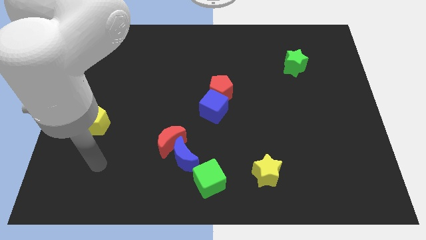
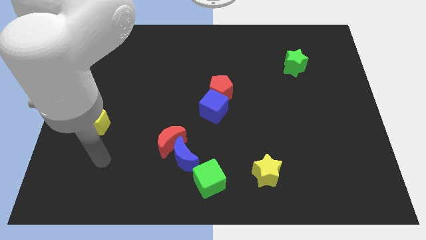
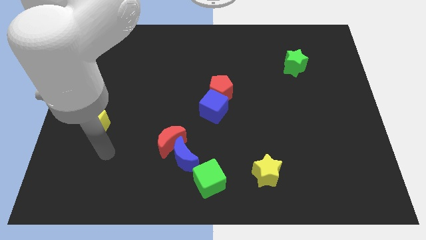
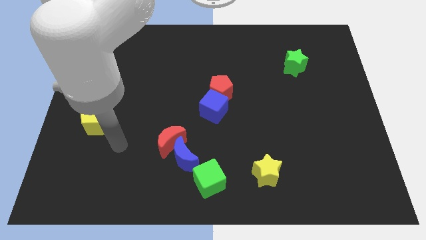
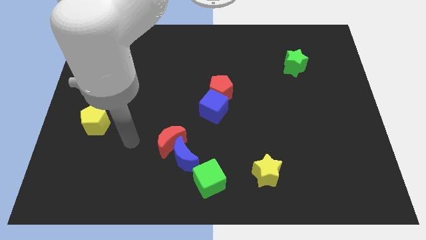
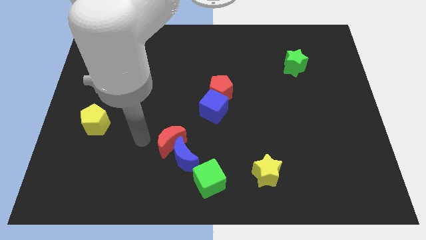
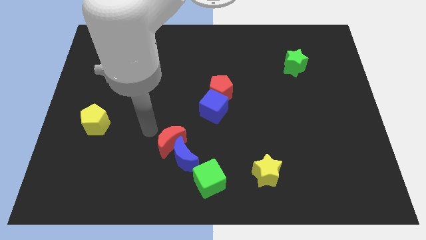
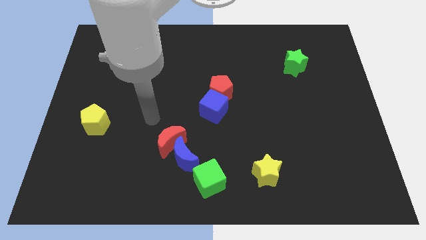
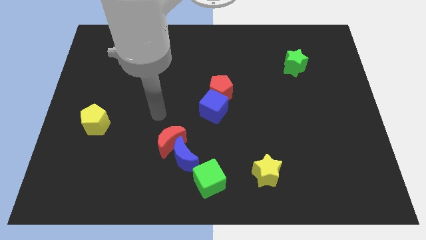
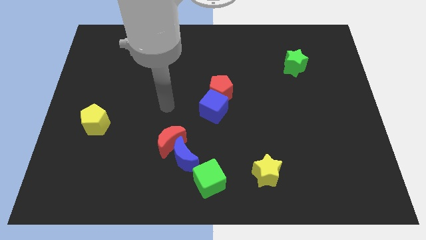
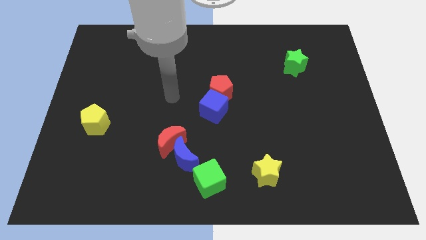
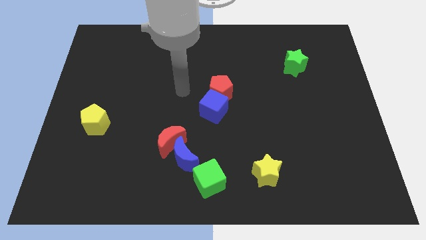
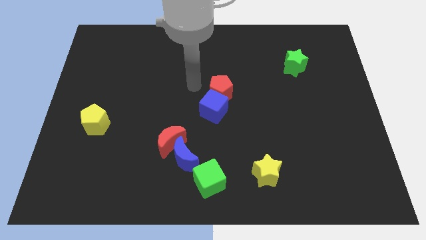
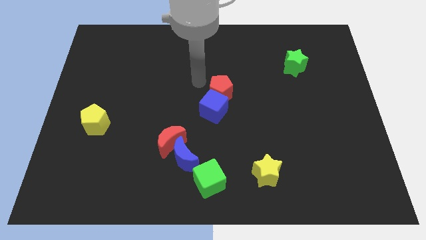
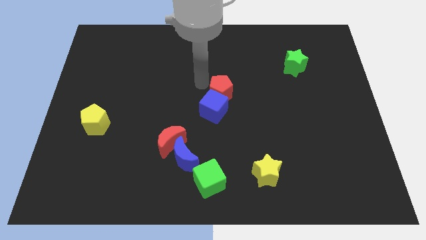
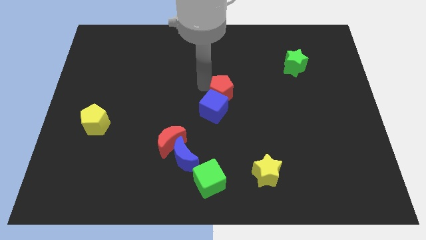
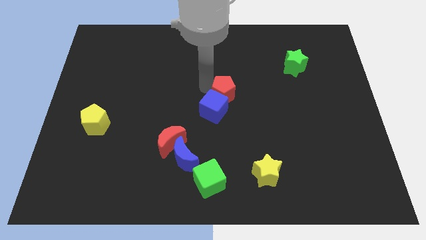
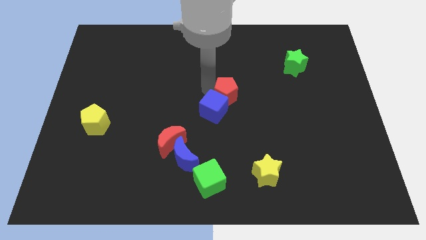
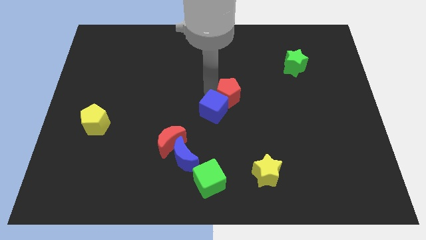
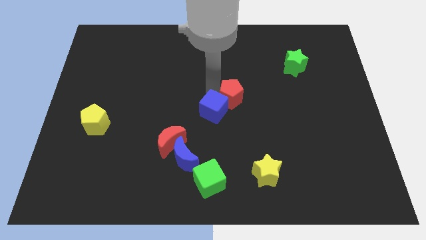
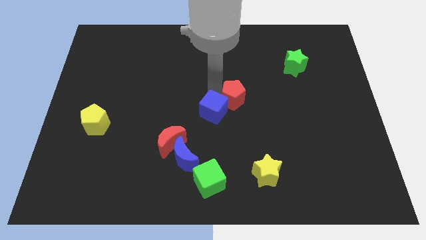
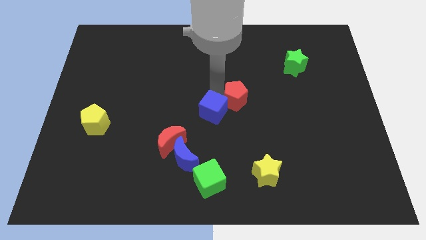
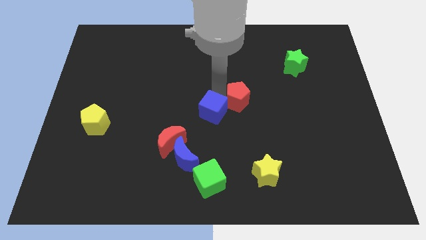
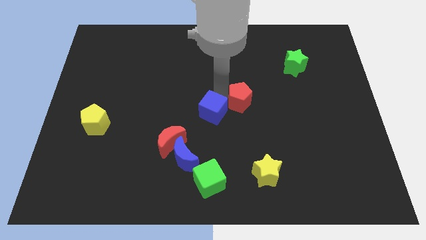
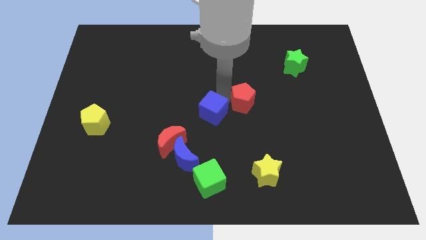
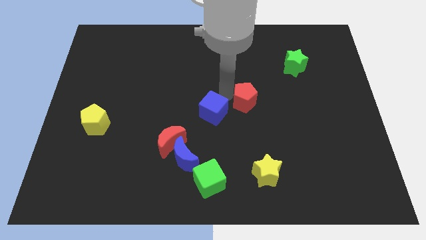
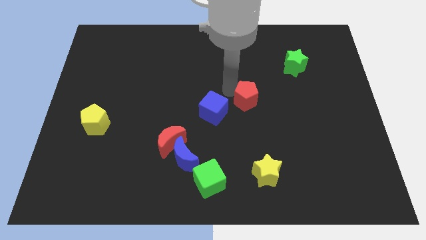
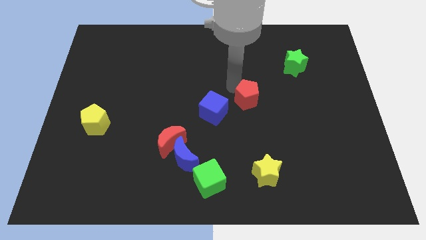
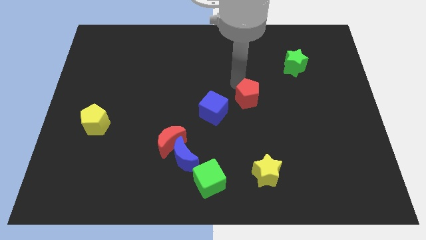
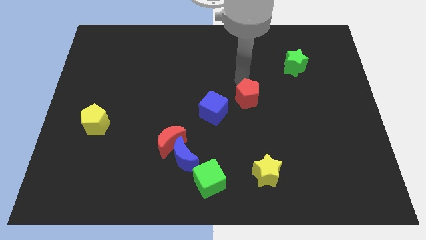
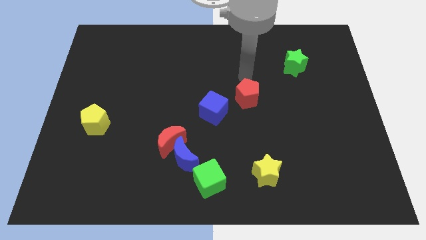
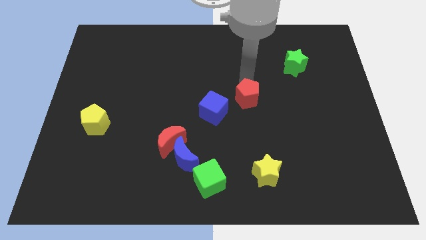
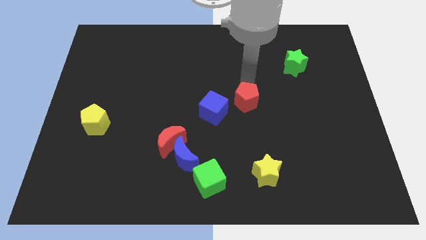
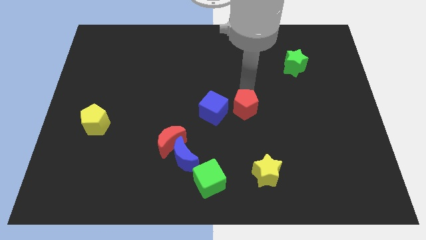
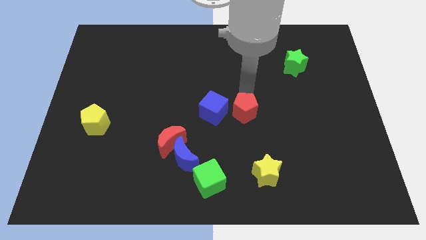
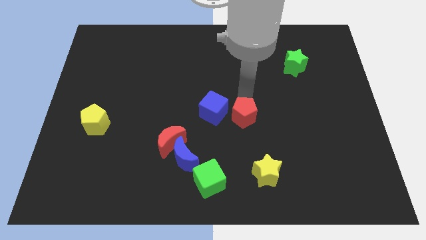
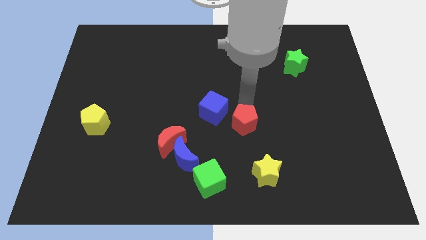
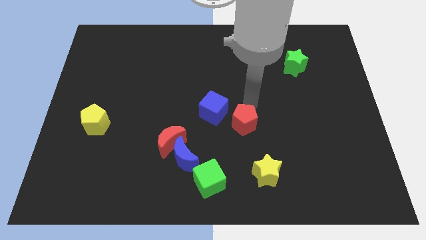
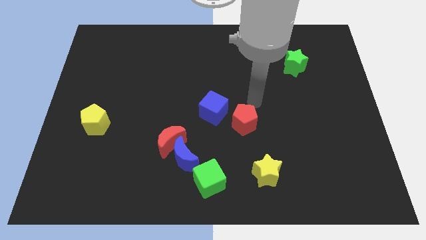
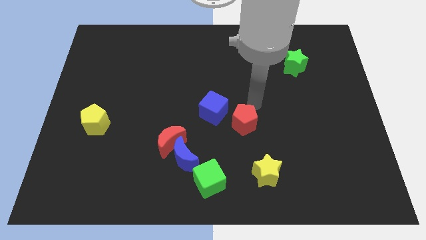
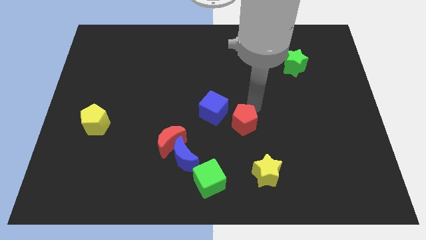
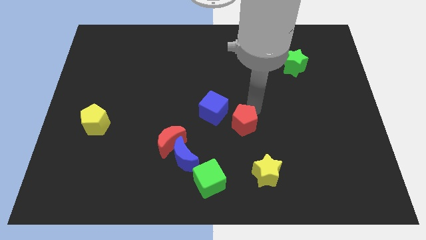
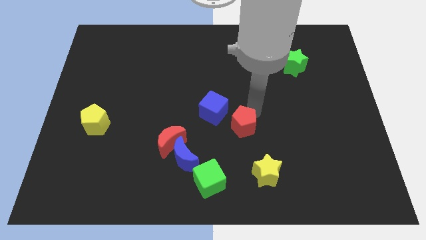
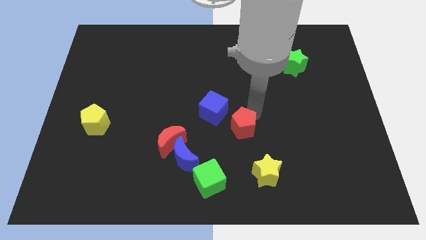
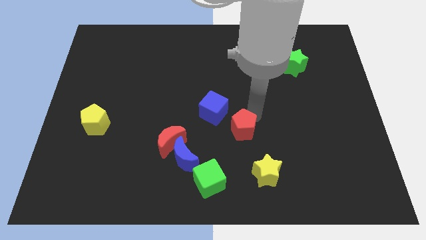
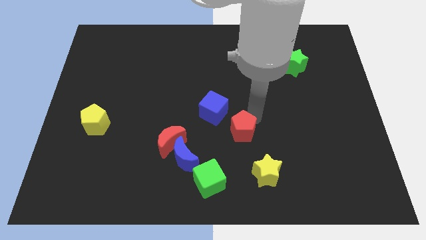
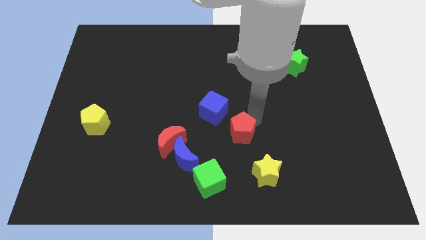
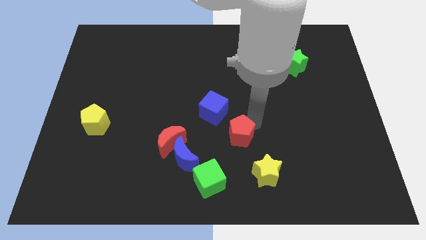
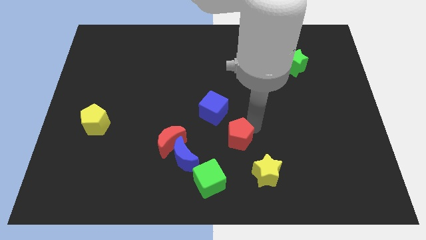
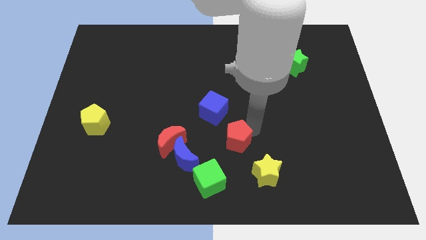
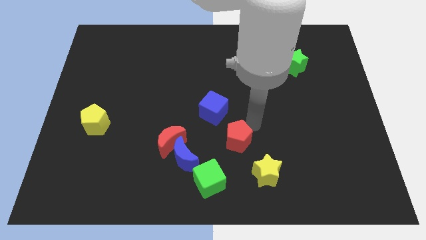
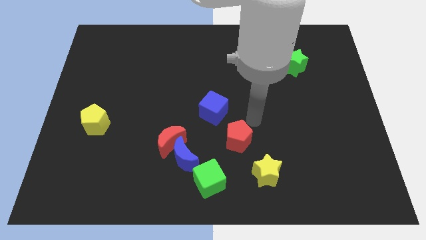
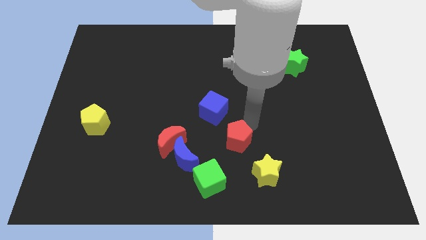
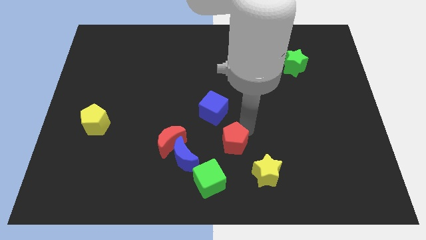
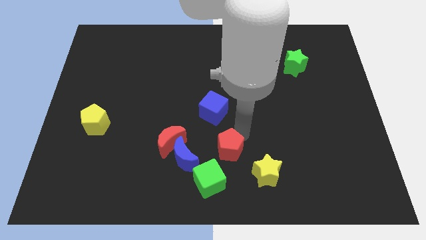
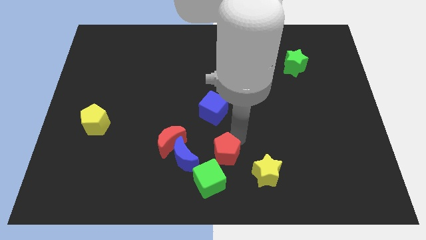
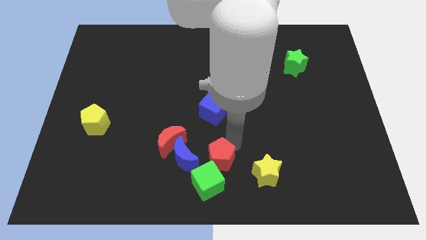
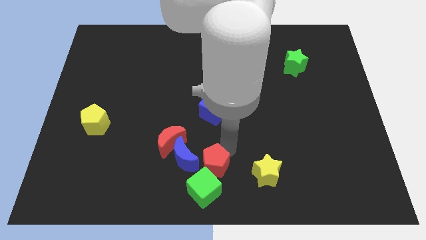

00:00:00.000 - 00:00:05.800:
move the red pentagon towards the green cube

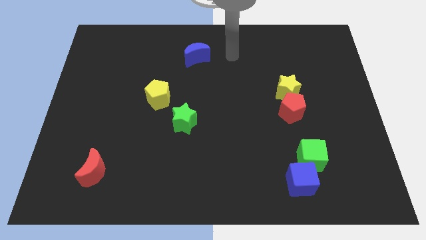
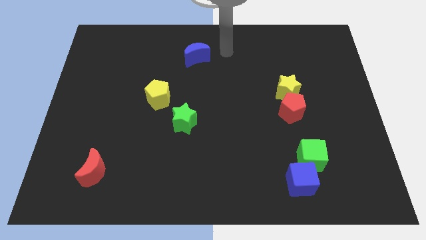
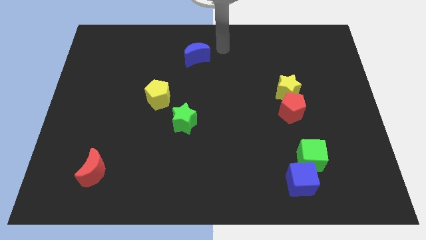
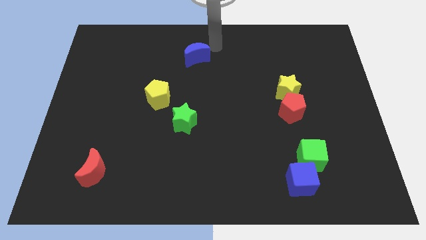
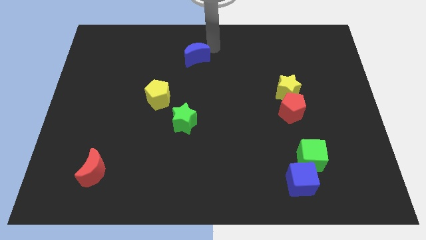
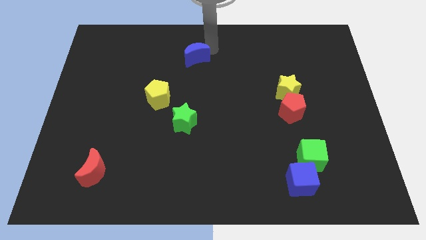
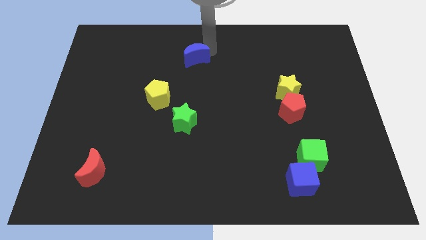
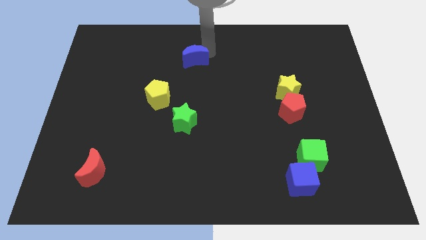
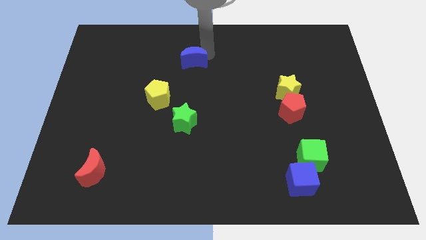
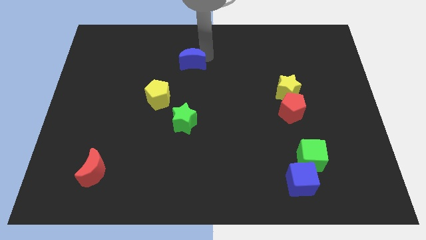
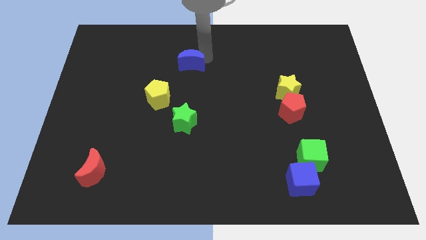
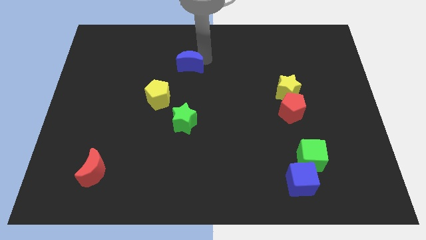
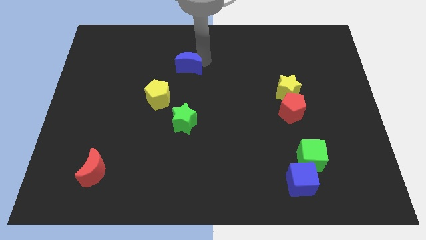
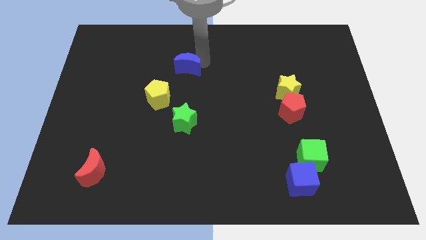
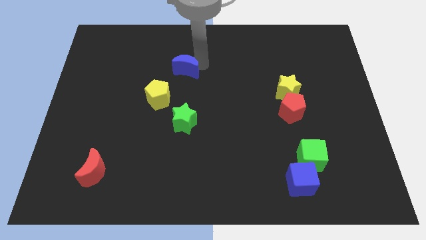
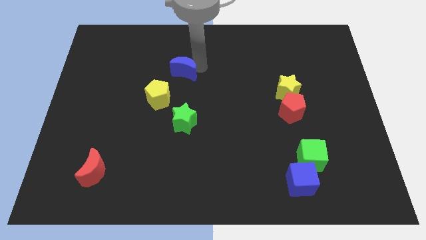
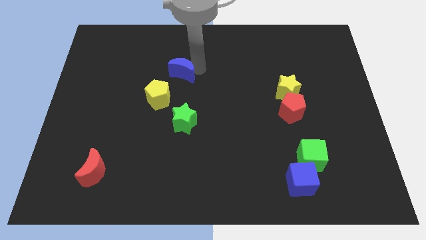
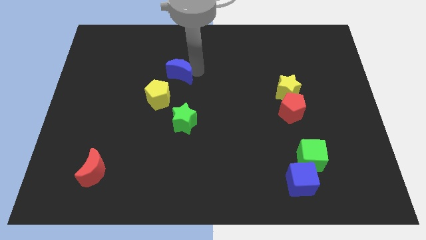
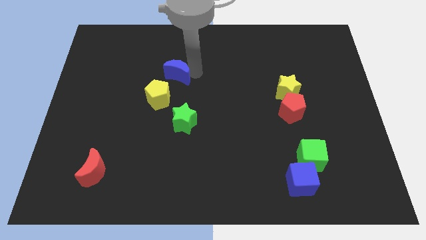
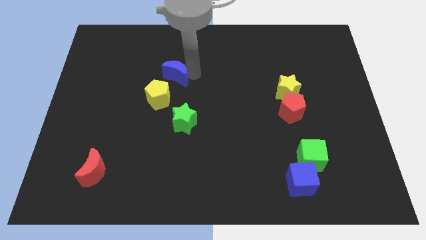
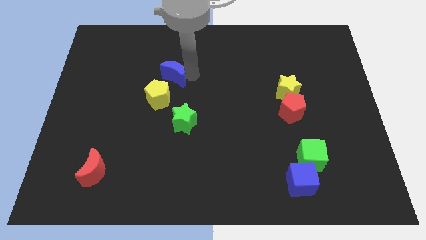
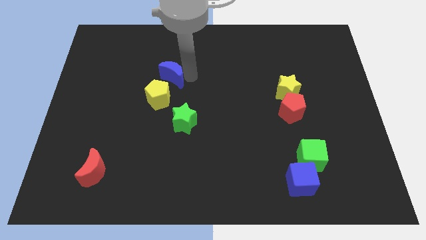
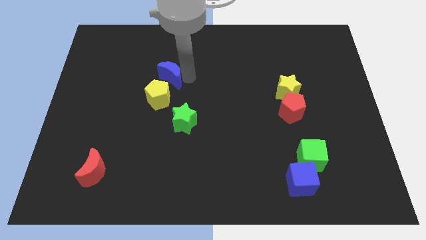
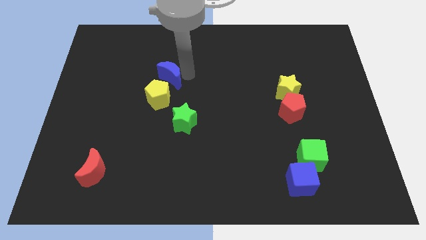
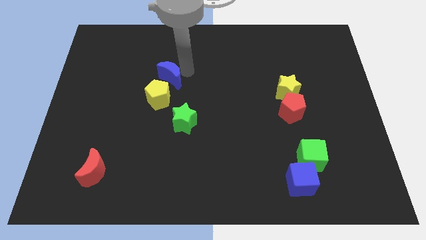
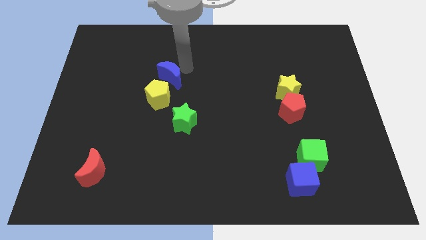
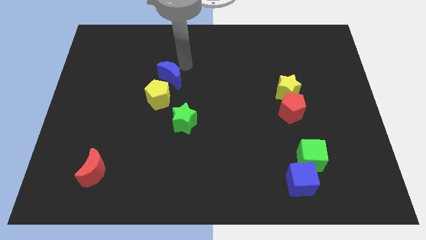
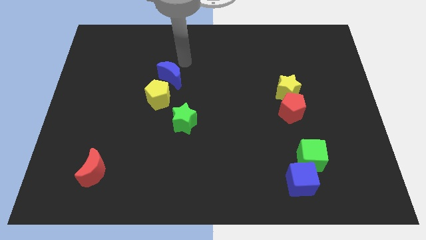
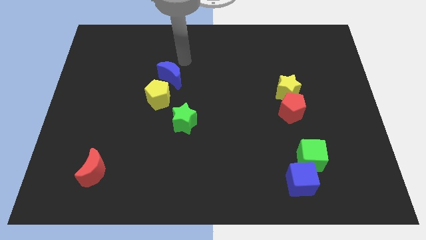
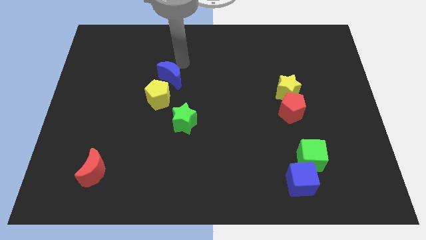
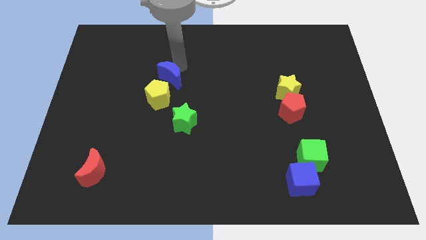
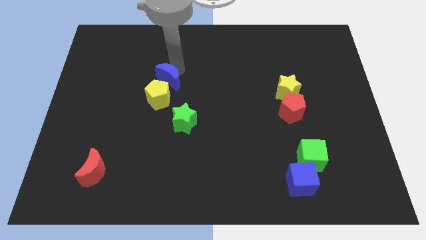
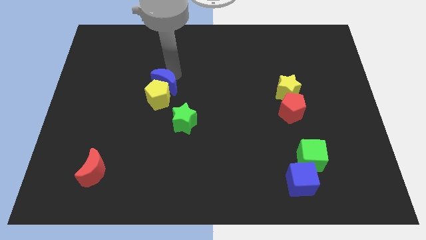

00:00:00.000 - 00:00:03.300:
put the blue moon next to the yellow pentagon
